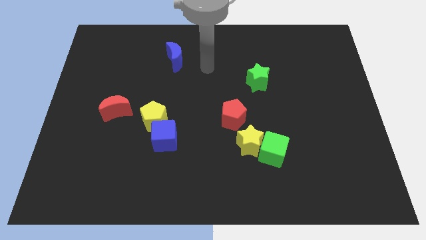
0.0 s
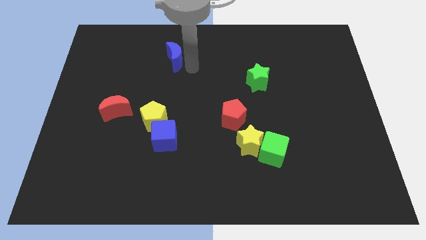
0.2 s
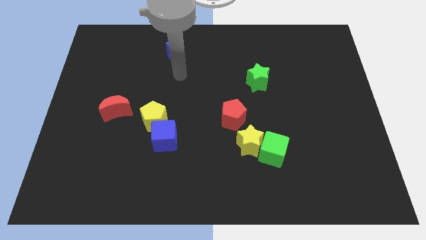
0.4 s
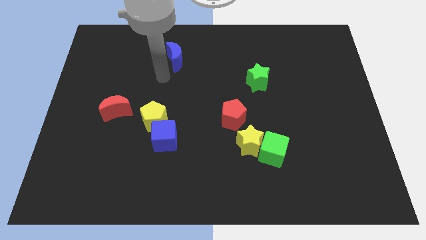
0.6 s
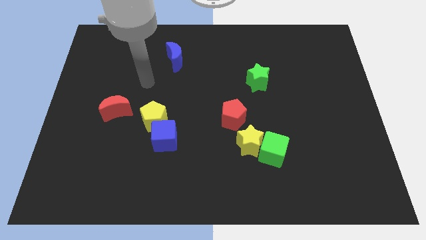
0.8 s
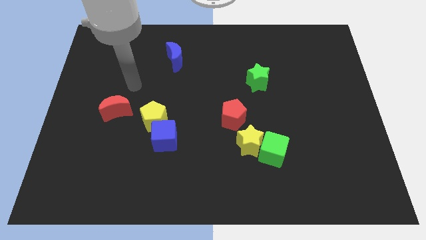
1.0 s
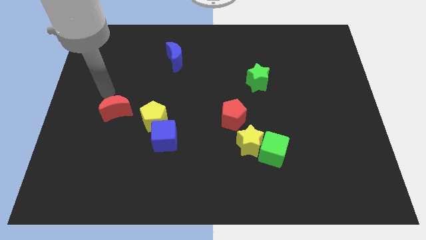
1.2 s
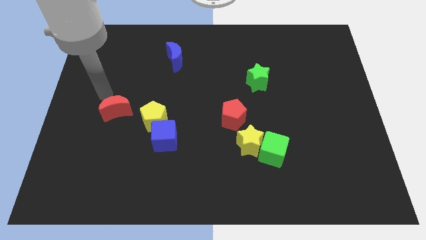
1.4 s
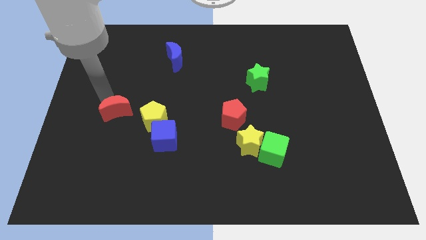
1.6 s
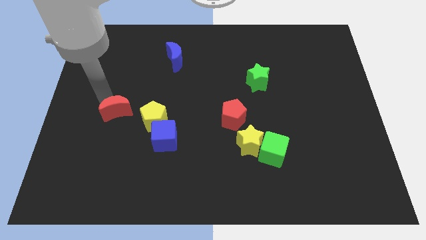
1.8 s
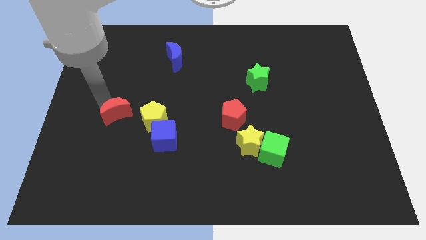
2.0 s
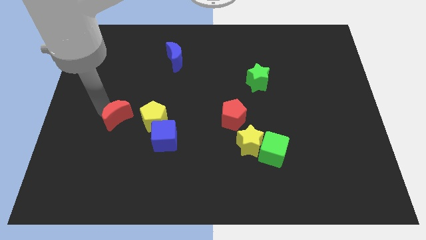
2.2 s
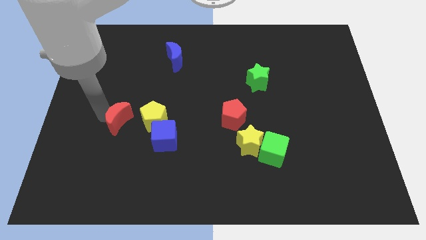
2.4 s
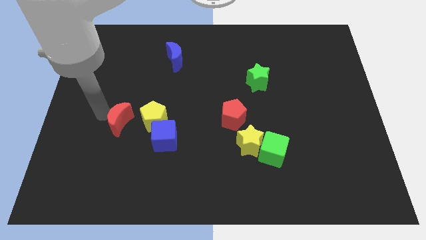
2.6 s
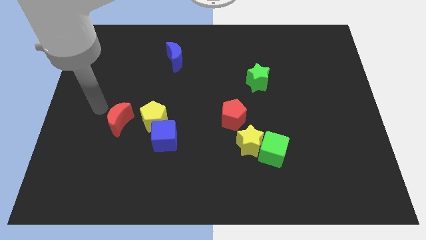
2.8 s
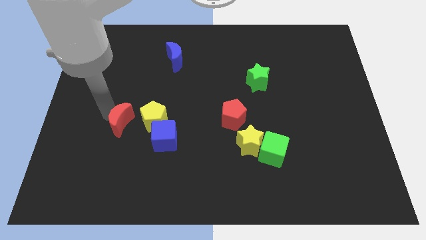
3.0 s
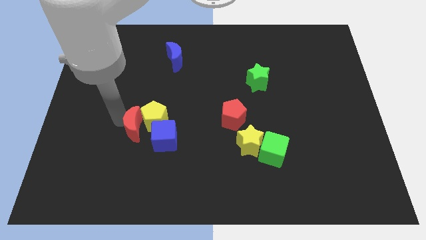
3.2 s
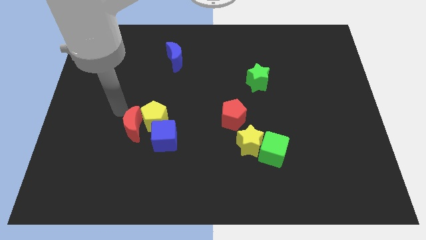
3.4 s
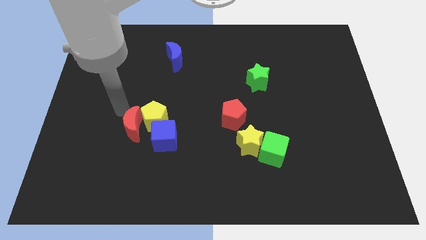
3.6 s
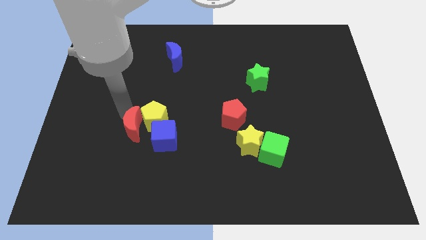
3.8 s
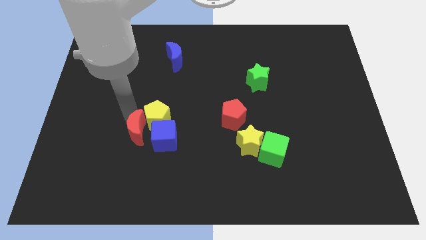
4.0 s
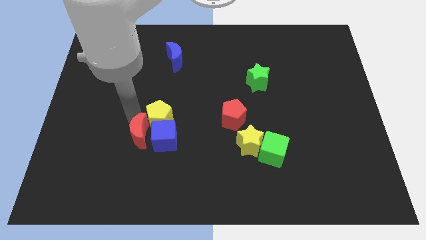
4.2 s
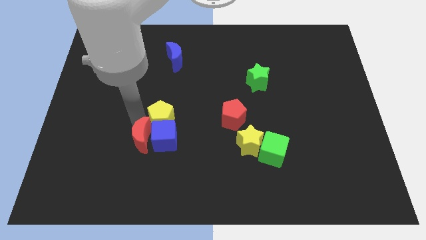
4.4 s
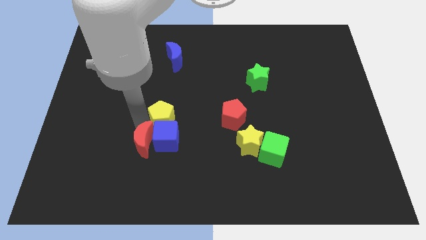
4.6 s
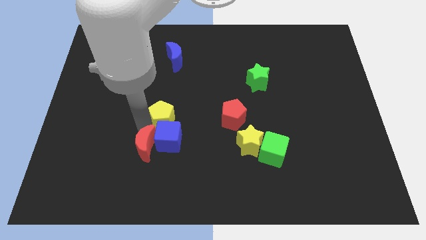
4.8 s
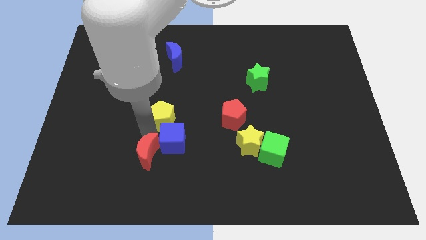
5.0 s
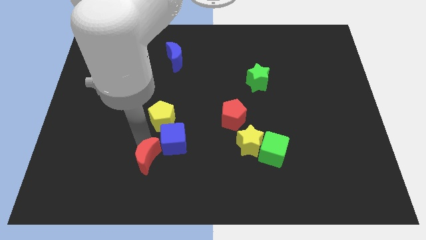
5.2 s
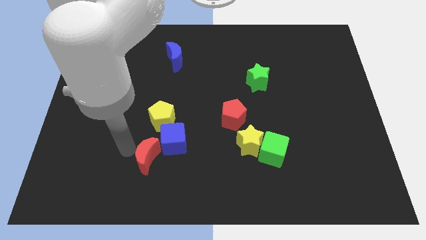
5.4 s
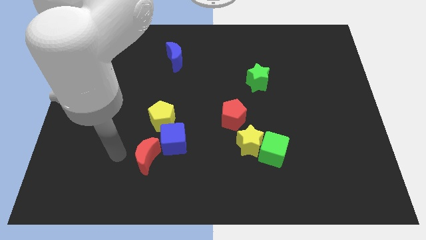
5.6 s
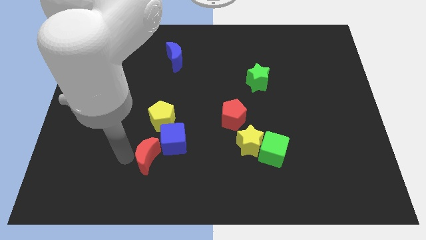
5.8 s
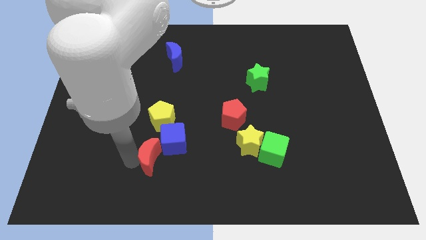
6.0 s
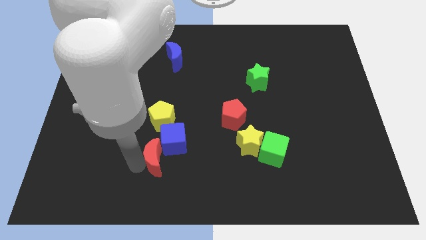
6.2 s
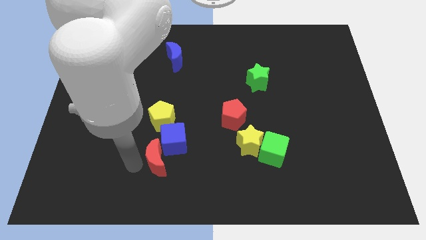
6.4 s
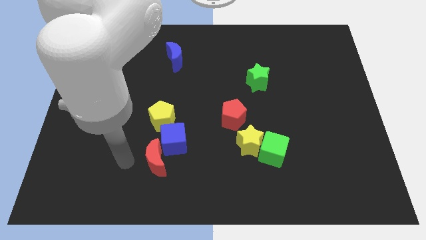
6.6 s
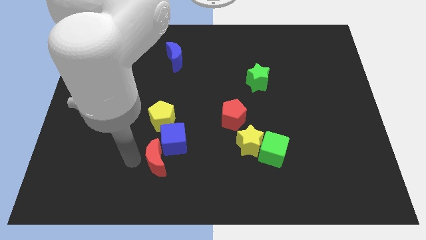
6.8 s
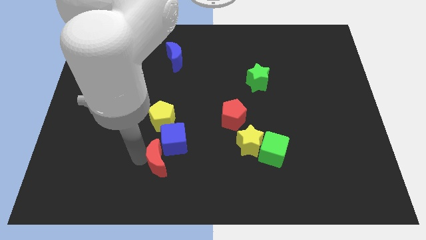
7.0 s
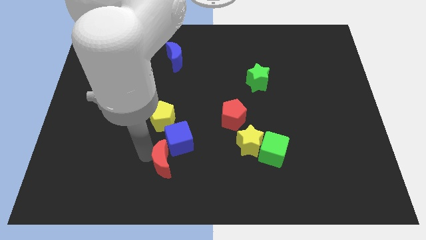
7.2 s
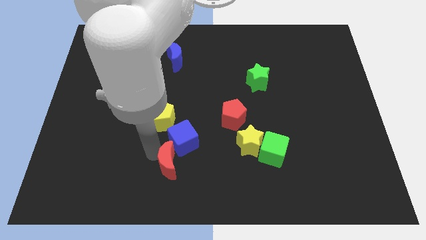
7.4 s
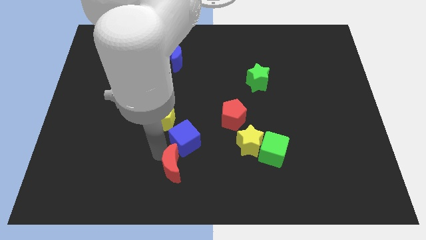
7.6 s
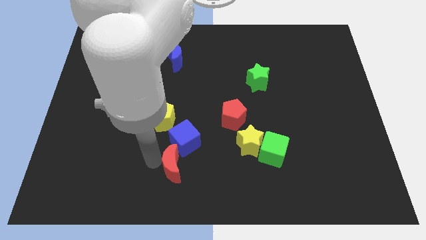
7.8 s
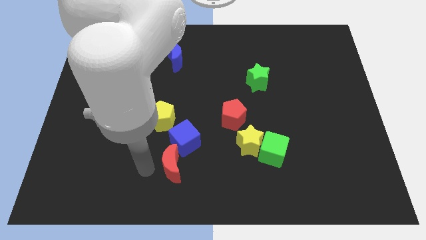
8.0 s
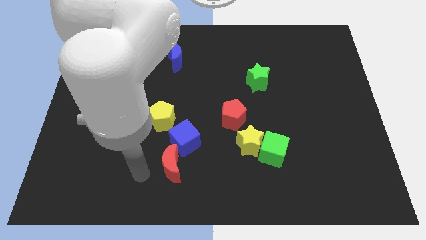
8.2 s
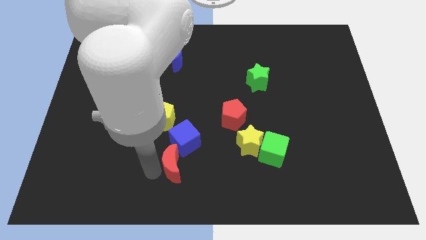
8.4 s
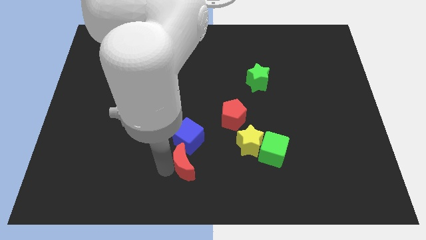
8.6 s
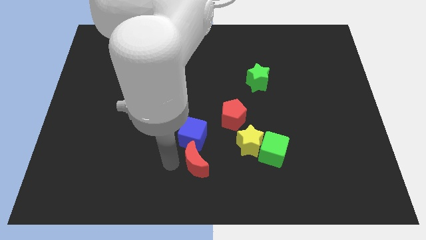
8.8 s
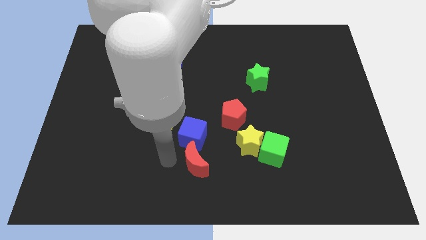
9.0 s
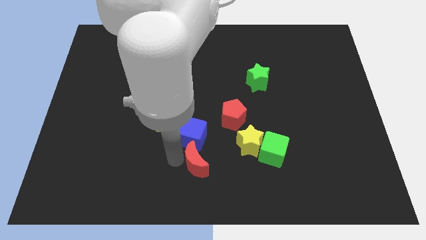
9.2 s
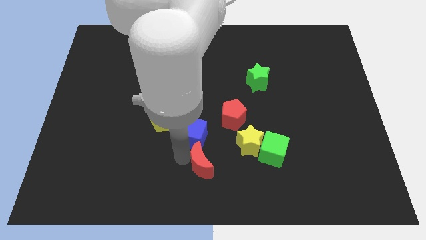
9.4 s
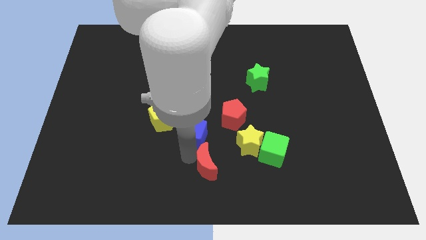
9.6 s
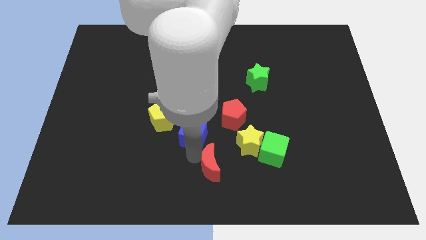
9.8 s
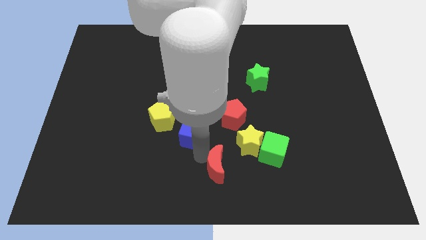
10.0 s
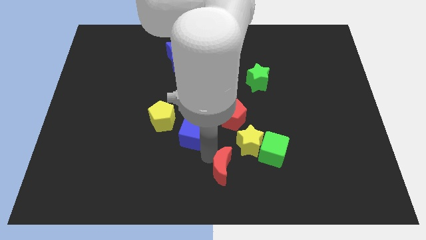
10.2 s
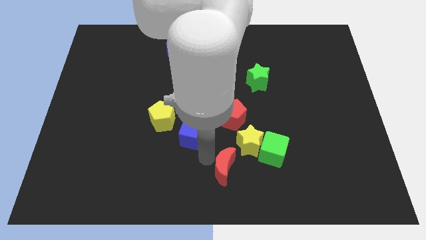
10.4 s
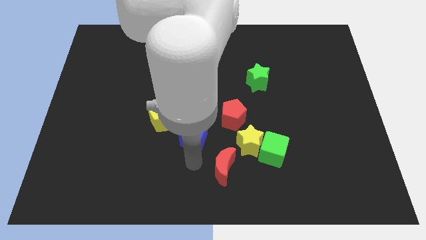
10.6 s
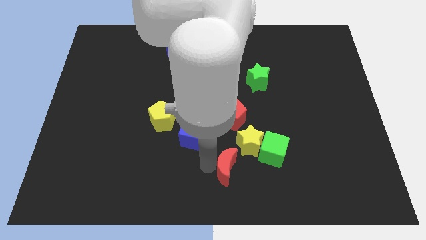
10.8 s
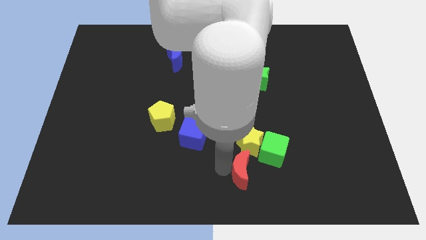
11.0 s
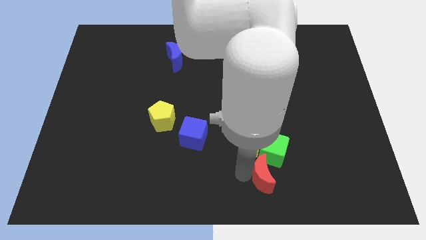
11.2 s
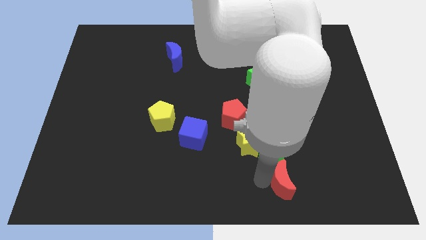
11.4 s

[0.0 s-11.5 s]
slide the red moon to the bottom right side of the green cube

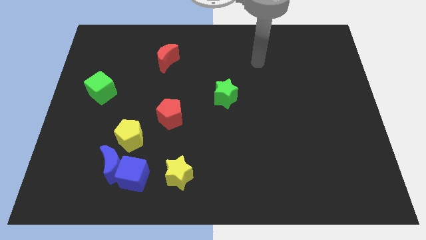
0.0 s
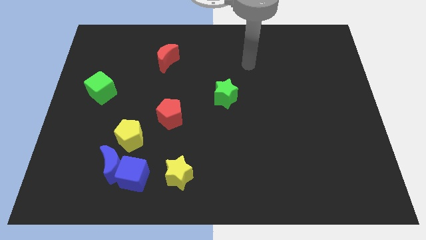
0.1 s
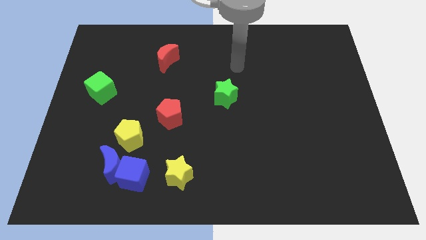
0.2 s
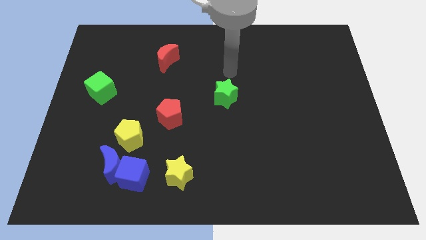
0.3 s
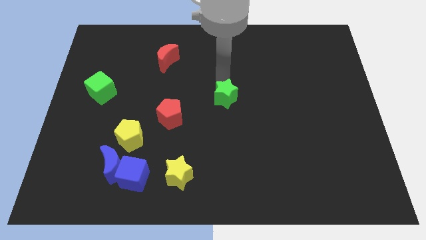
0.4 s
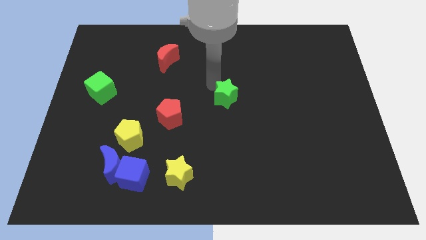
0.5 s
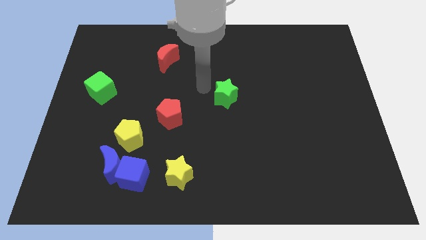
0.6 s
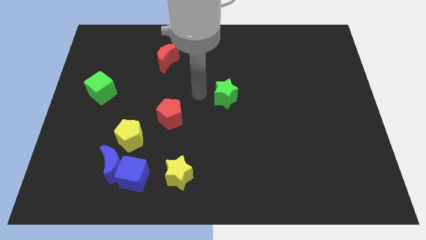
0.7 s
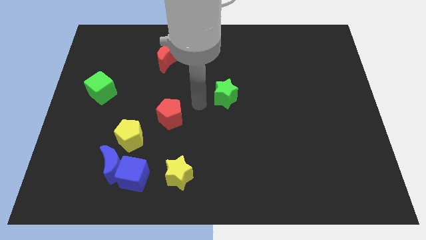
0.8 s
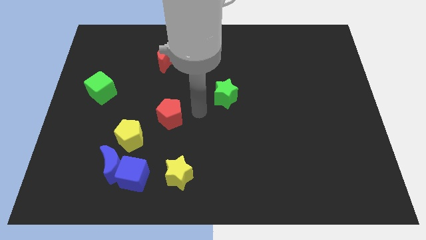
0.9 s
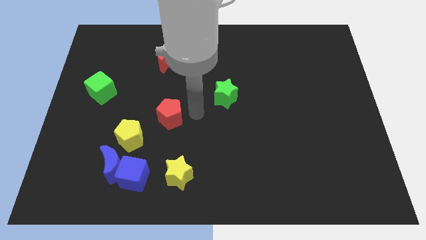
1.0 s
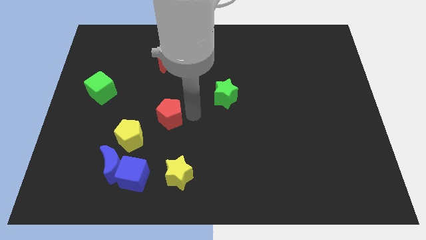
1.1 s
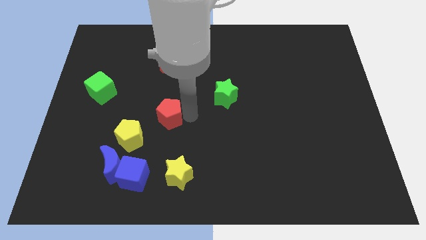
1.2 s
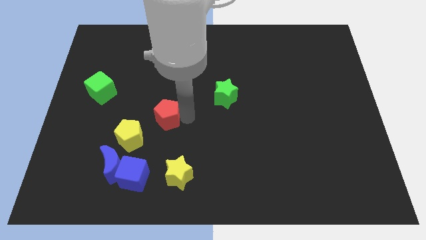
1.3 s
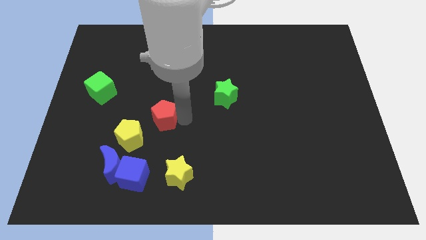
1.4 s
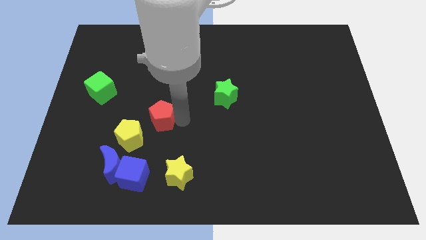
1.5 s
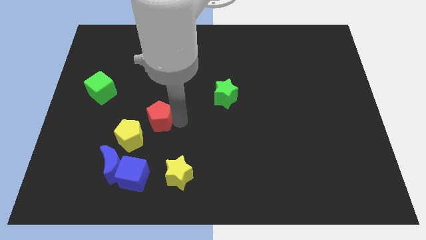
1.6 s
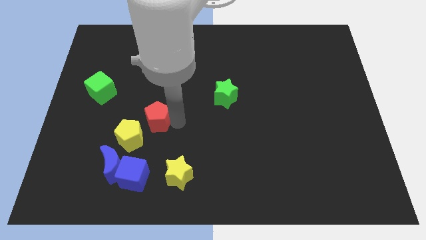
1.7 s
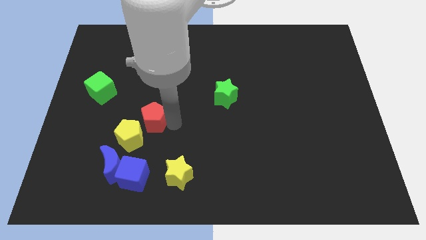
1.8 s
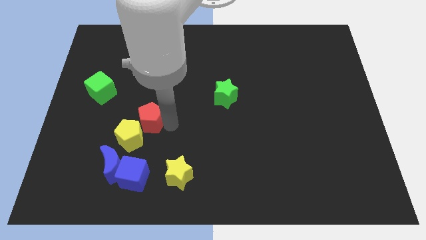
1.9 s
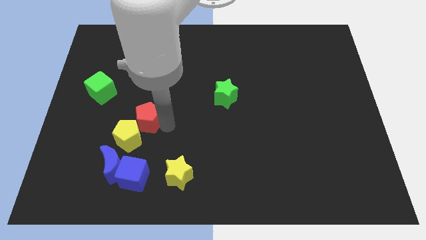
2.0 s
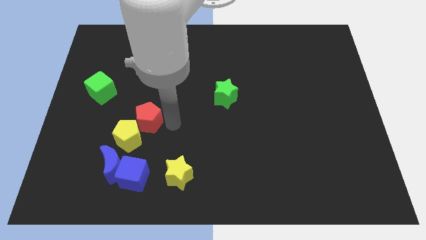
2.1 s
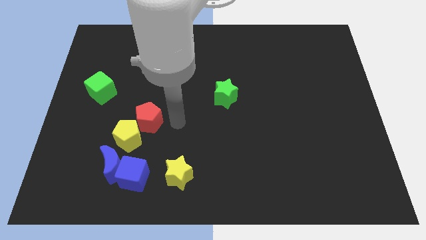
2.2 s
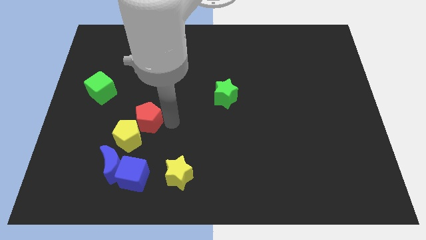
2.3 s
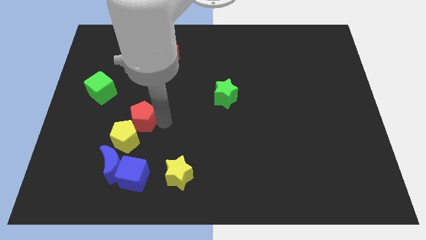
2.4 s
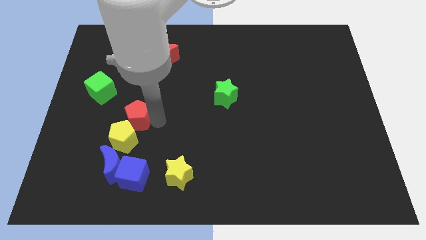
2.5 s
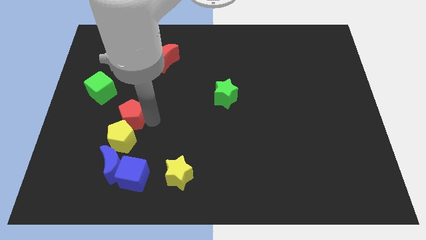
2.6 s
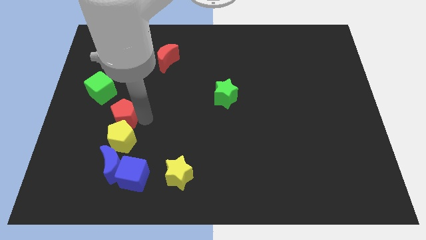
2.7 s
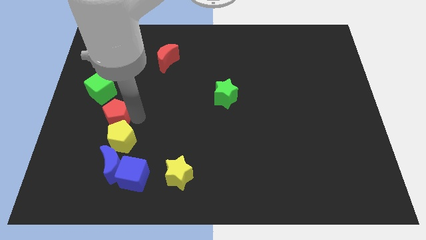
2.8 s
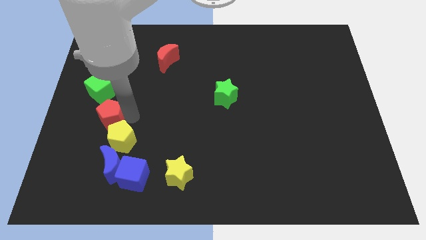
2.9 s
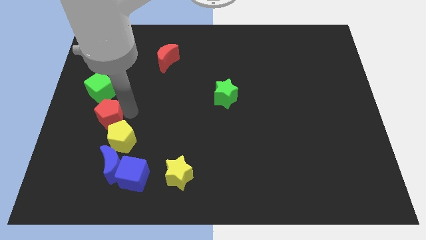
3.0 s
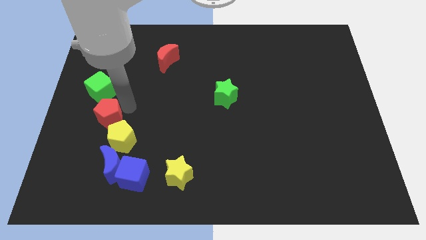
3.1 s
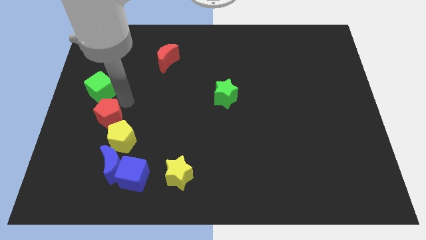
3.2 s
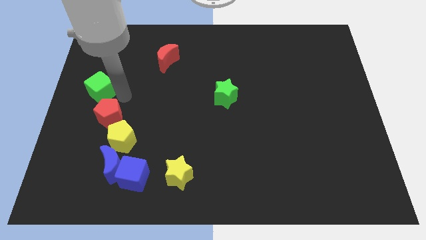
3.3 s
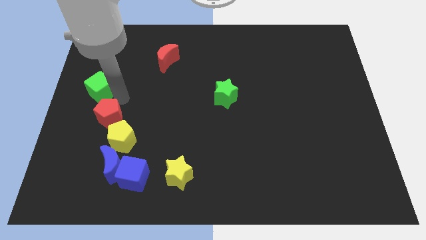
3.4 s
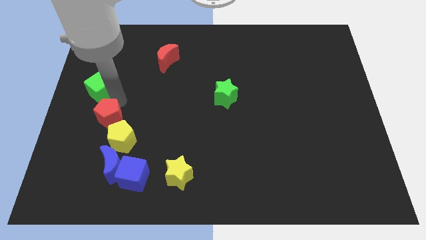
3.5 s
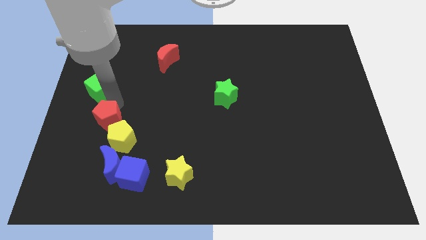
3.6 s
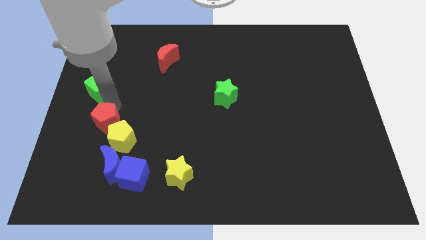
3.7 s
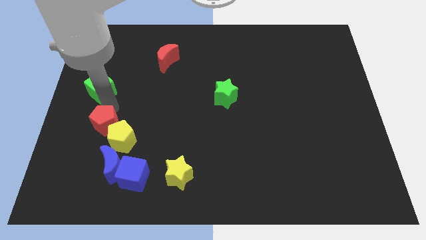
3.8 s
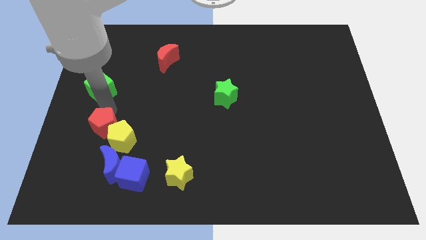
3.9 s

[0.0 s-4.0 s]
push the red pentagon to the top left of the blue moon
